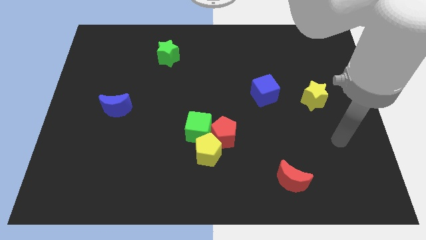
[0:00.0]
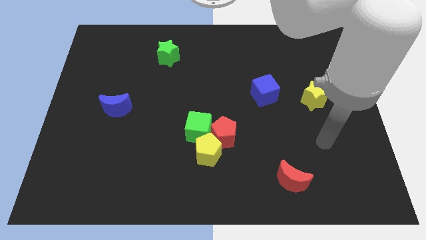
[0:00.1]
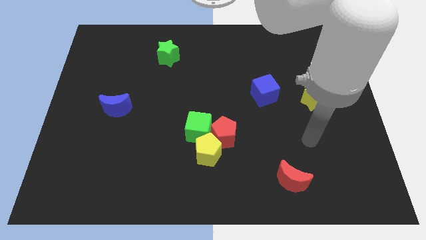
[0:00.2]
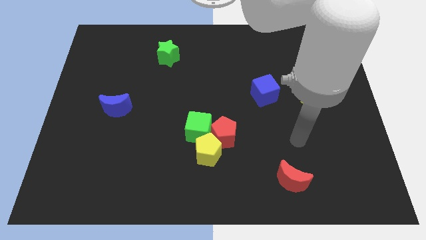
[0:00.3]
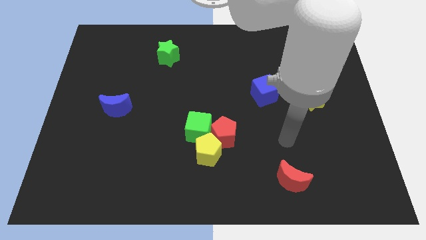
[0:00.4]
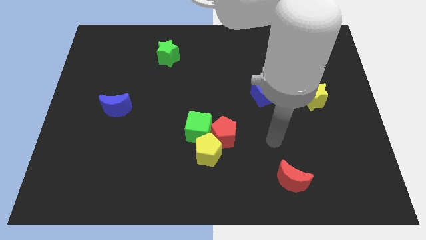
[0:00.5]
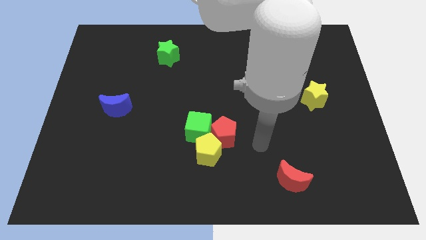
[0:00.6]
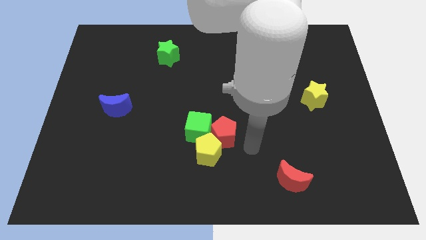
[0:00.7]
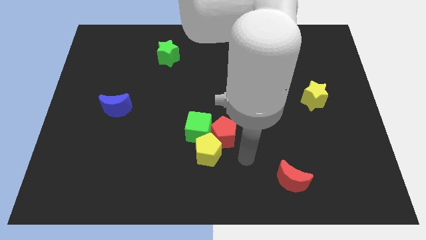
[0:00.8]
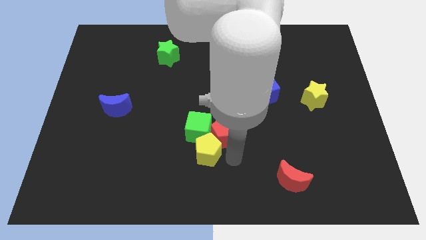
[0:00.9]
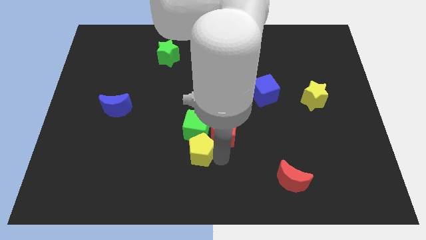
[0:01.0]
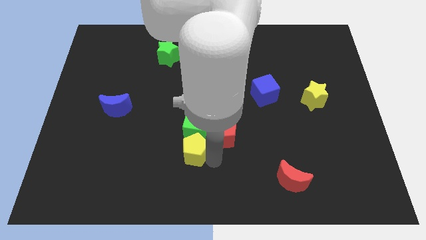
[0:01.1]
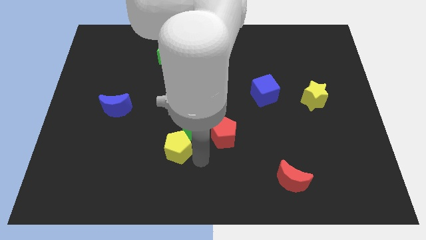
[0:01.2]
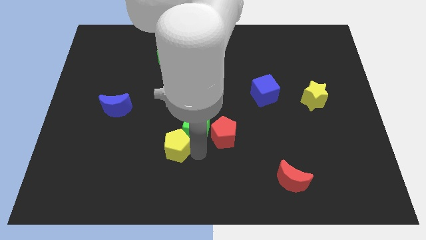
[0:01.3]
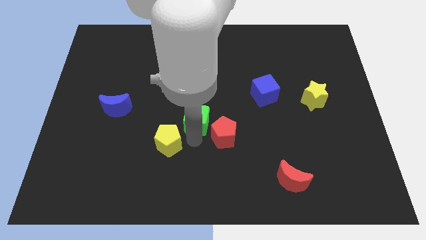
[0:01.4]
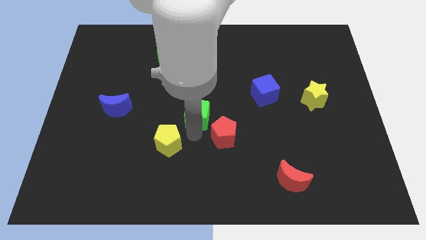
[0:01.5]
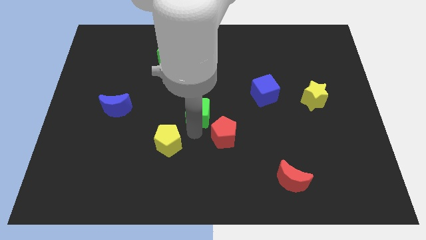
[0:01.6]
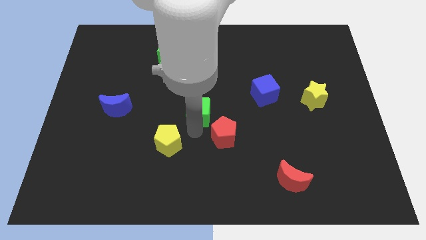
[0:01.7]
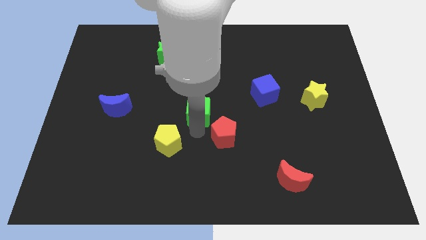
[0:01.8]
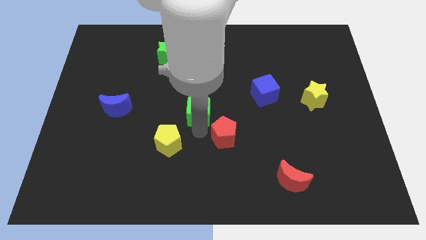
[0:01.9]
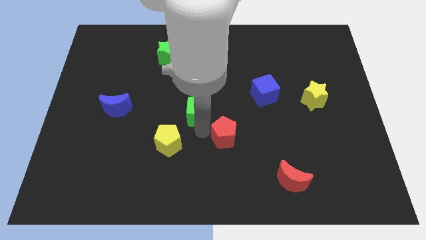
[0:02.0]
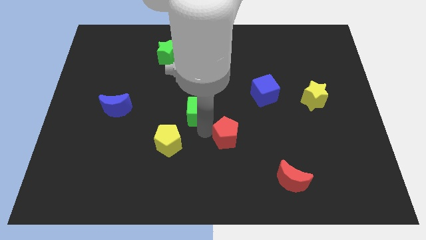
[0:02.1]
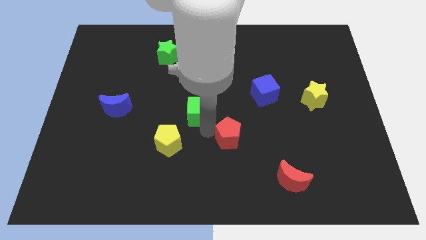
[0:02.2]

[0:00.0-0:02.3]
pull the red pentagon apart from the yellow pentagon and green cube

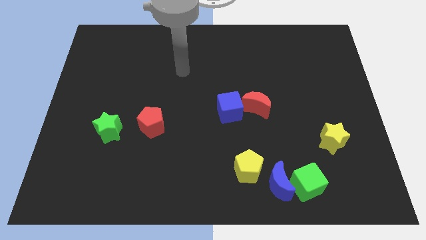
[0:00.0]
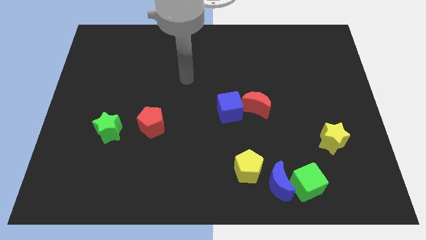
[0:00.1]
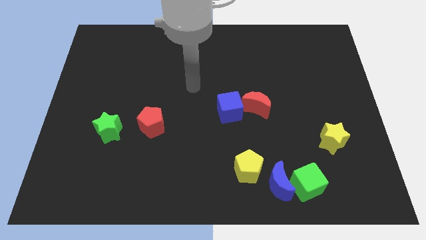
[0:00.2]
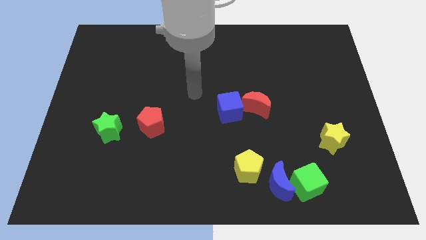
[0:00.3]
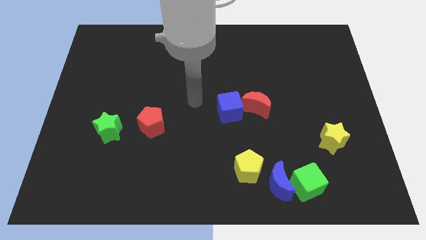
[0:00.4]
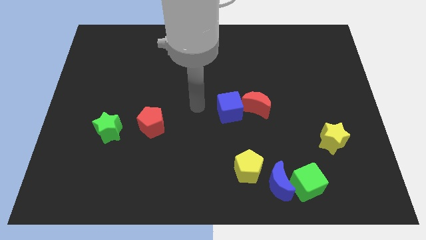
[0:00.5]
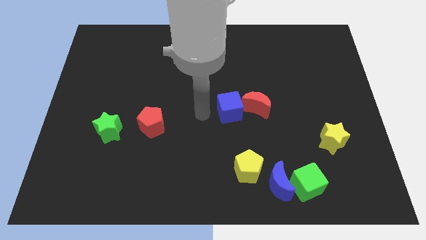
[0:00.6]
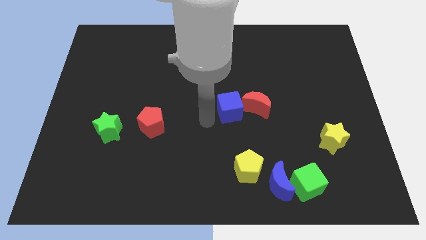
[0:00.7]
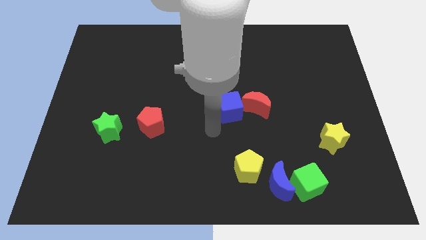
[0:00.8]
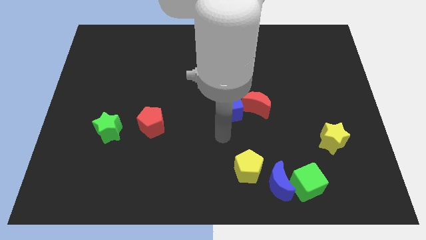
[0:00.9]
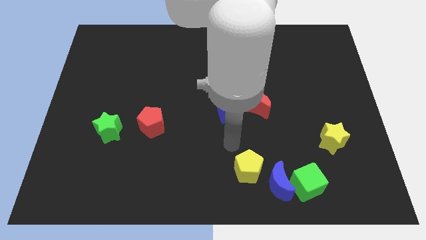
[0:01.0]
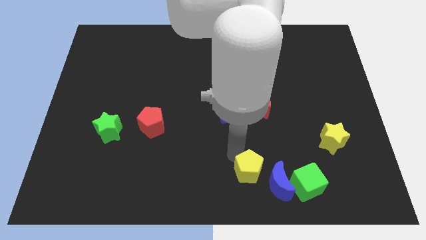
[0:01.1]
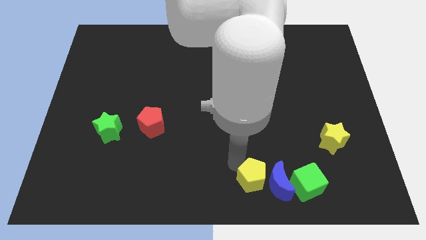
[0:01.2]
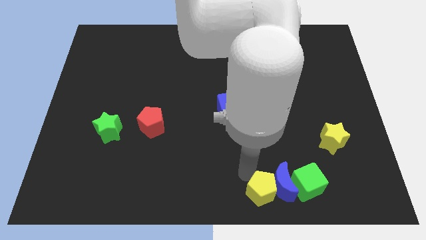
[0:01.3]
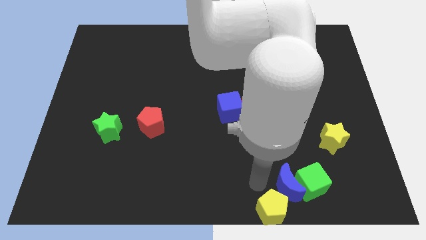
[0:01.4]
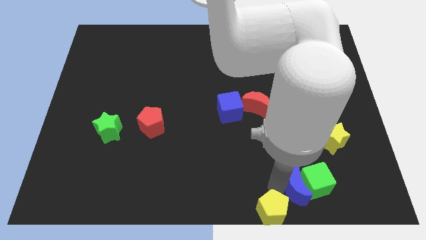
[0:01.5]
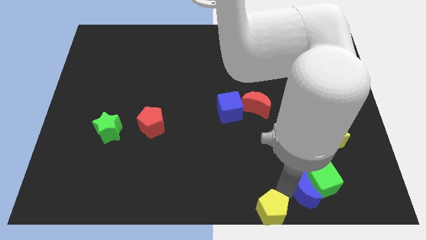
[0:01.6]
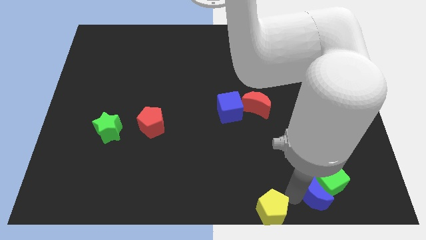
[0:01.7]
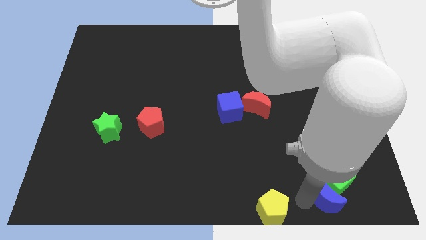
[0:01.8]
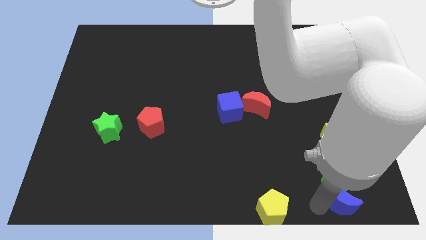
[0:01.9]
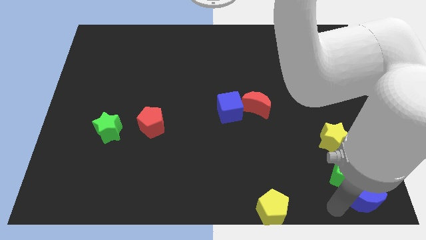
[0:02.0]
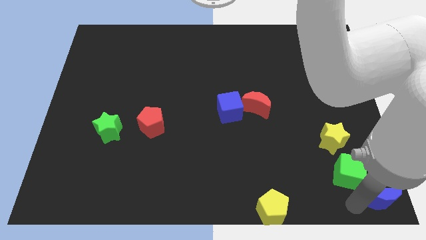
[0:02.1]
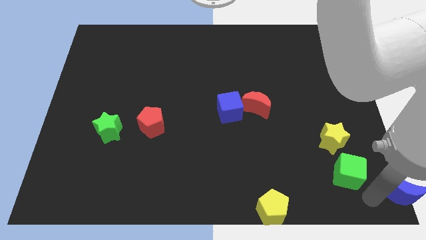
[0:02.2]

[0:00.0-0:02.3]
separate the green cube from the blue moon

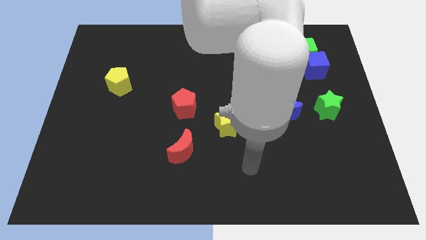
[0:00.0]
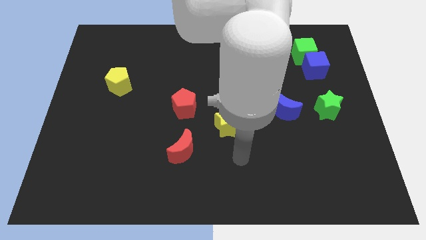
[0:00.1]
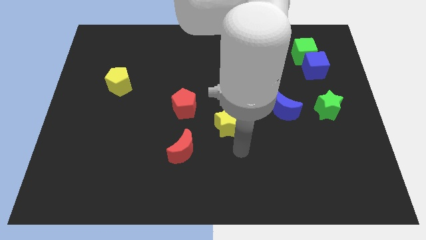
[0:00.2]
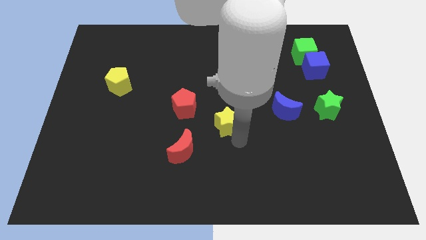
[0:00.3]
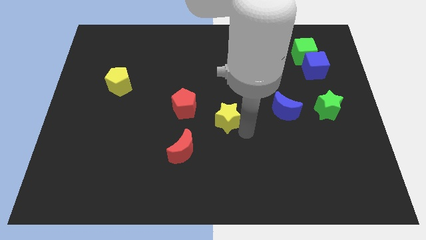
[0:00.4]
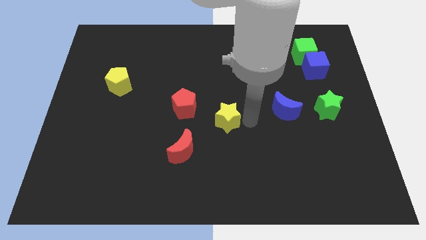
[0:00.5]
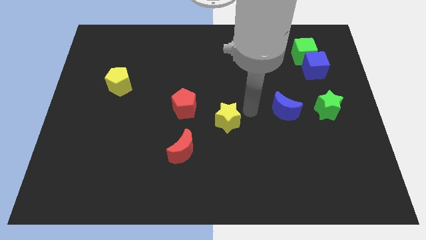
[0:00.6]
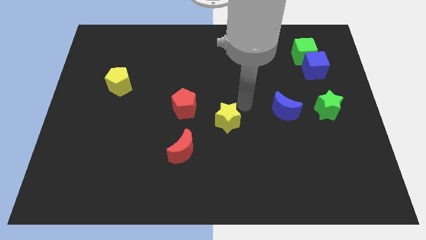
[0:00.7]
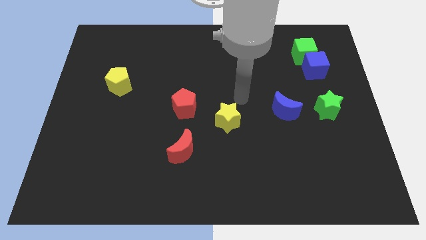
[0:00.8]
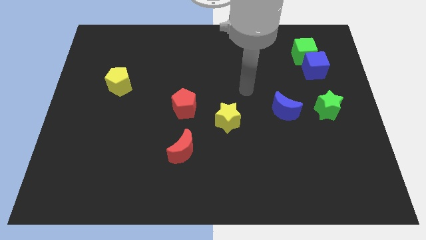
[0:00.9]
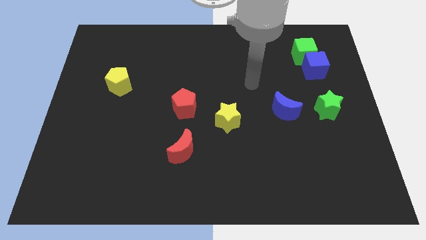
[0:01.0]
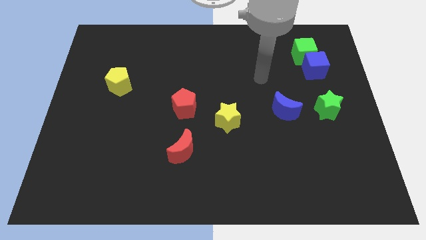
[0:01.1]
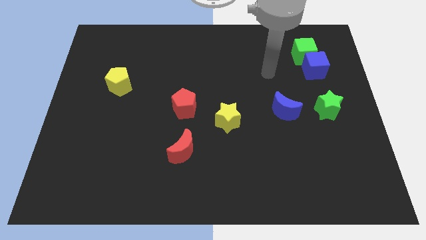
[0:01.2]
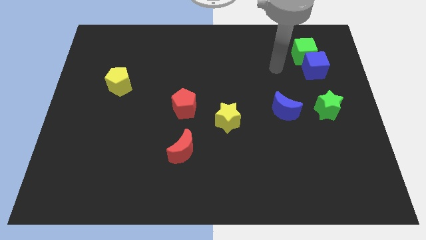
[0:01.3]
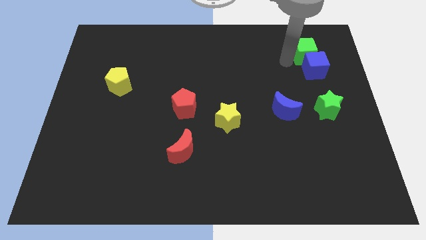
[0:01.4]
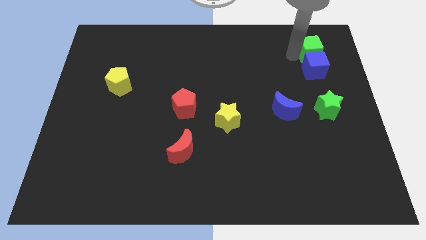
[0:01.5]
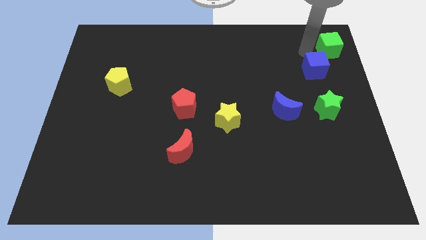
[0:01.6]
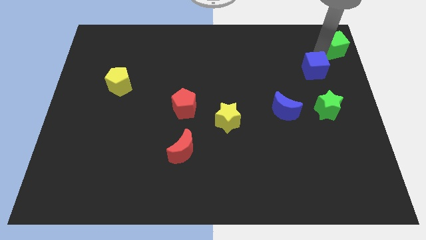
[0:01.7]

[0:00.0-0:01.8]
separate the blue cube from the green cube

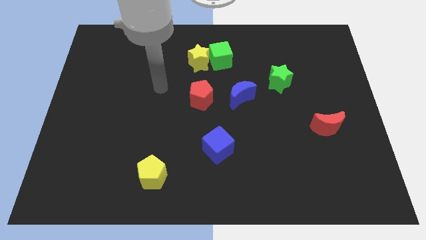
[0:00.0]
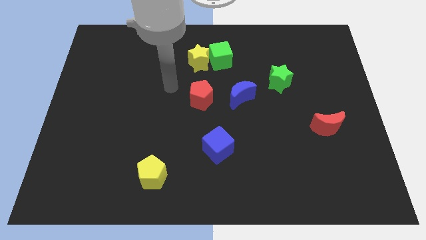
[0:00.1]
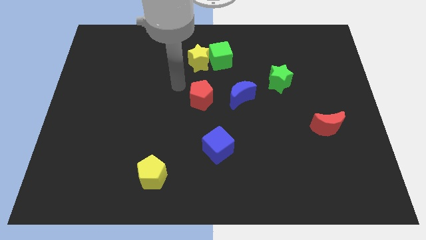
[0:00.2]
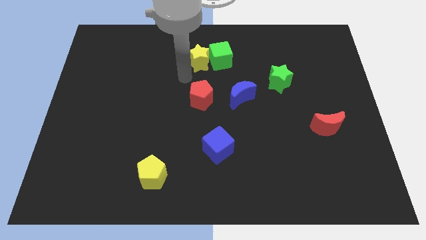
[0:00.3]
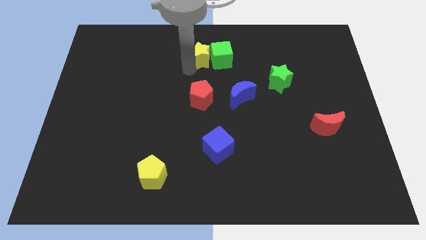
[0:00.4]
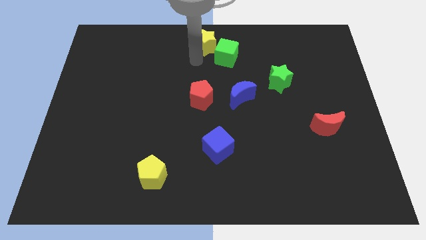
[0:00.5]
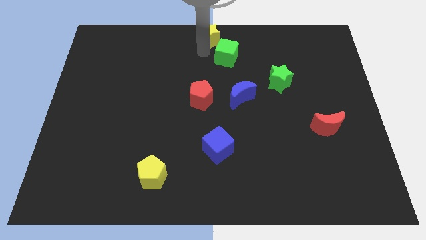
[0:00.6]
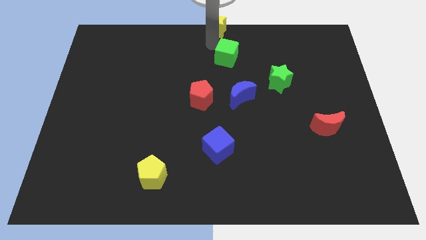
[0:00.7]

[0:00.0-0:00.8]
separate the green cube from the yellow star

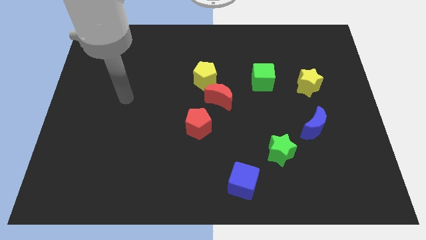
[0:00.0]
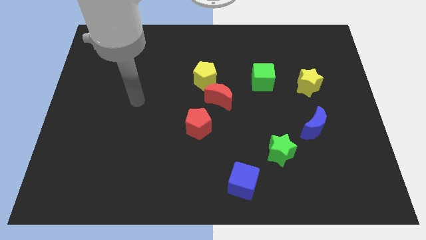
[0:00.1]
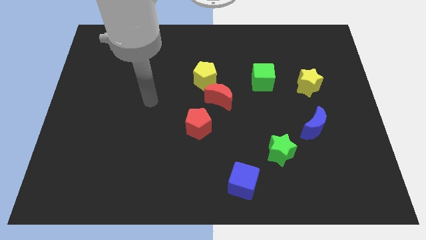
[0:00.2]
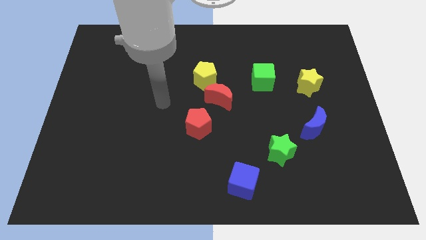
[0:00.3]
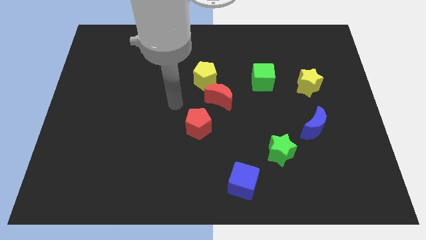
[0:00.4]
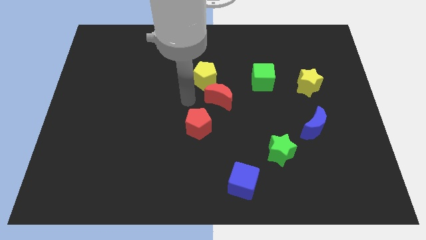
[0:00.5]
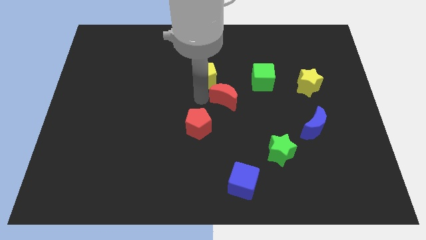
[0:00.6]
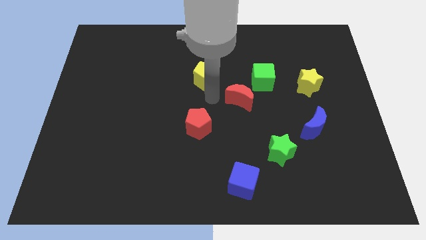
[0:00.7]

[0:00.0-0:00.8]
pull the yellow pentagon apart from the red moon

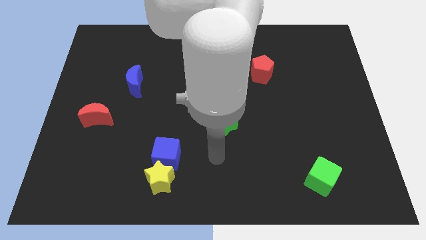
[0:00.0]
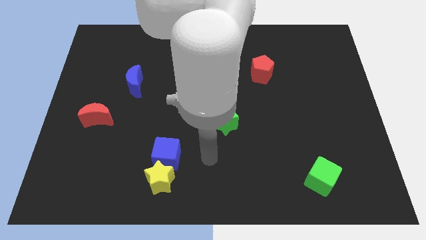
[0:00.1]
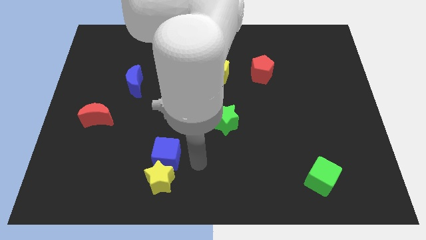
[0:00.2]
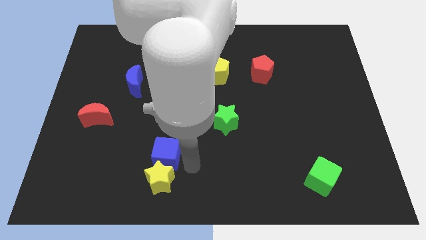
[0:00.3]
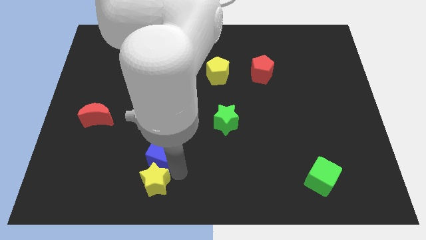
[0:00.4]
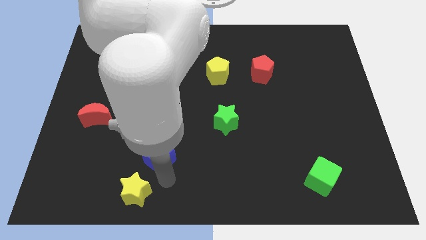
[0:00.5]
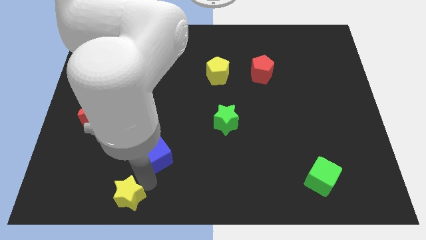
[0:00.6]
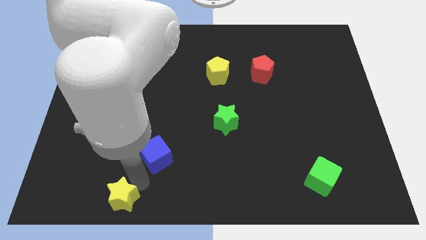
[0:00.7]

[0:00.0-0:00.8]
pull the blue cube apart from the yellow star

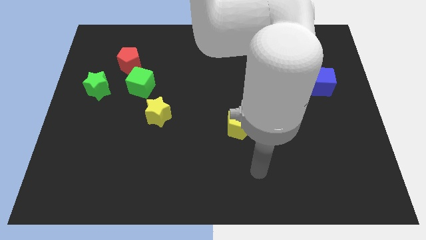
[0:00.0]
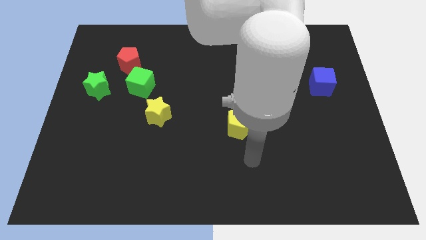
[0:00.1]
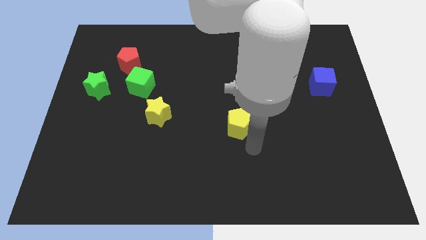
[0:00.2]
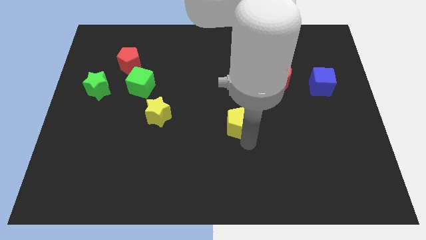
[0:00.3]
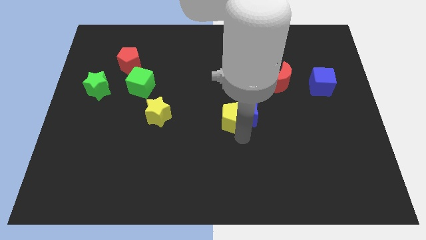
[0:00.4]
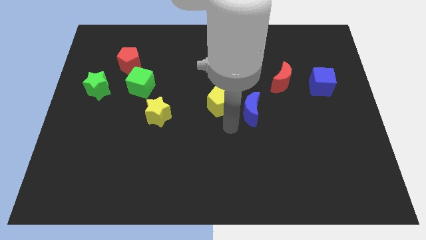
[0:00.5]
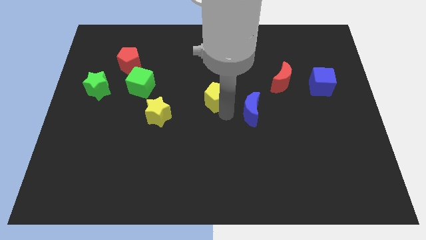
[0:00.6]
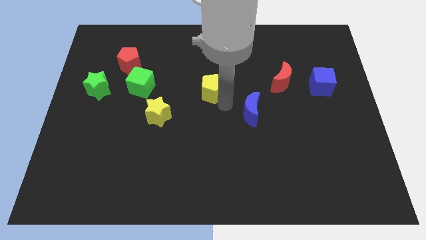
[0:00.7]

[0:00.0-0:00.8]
separate the blue moon from the yellow pentagon
